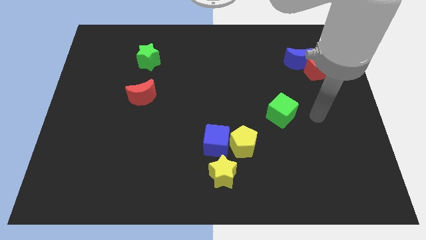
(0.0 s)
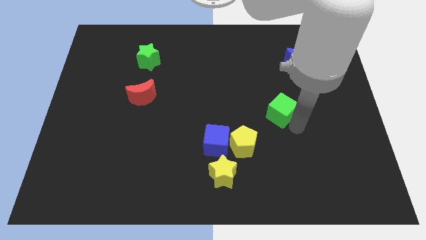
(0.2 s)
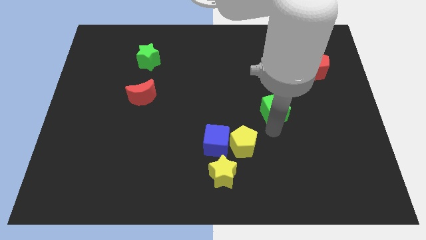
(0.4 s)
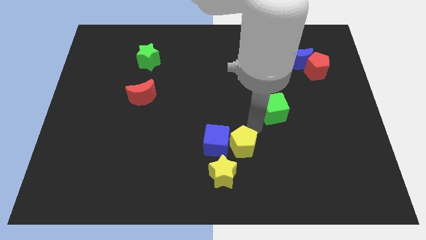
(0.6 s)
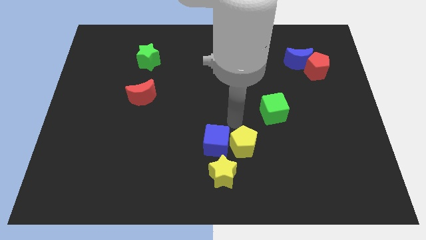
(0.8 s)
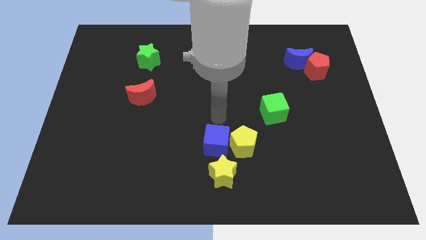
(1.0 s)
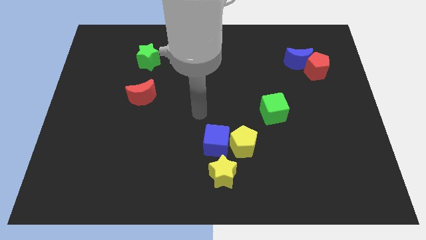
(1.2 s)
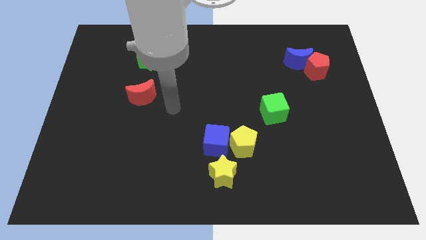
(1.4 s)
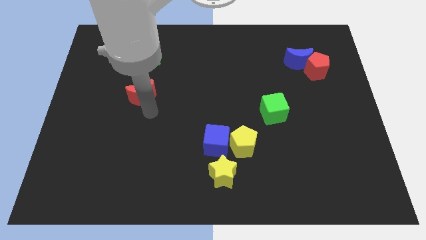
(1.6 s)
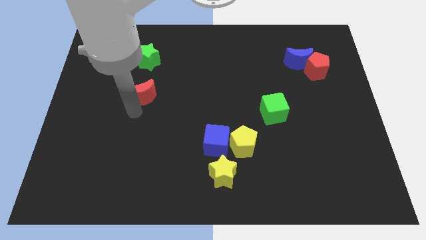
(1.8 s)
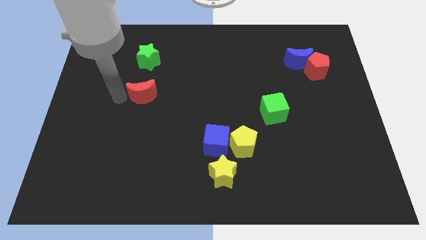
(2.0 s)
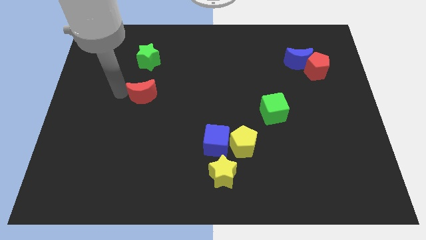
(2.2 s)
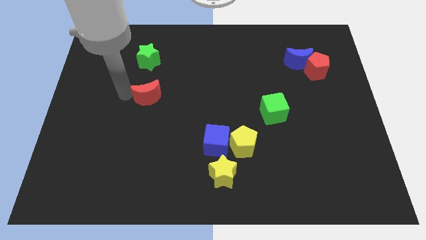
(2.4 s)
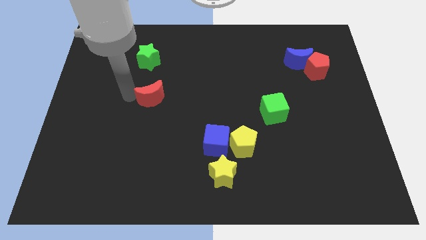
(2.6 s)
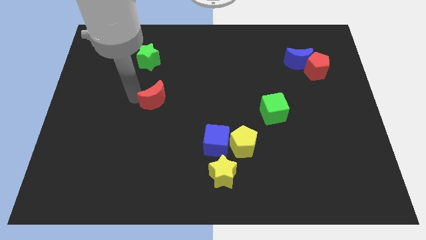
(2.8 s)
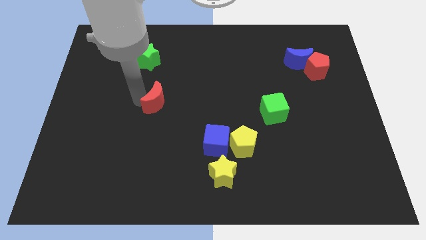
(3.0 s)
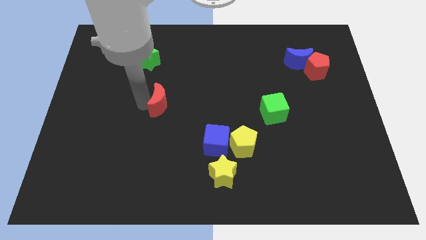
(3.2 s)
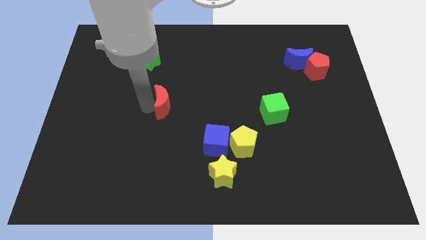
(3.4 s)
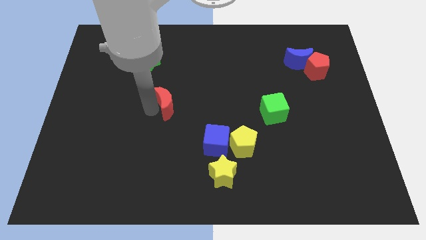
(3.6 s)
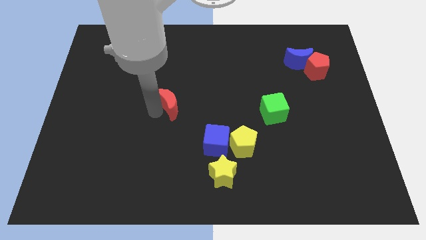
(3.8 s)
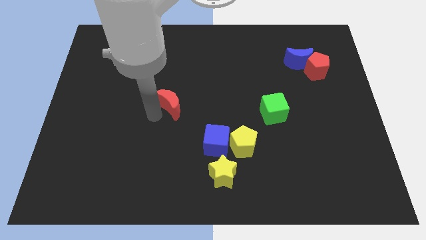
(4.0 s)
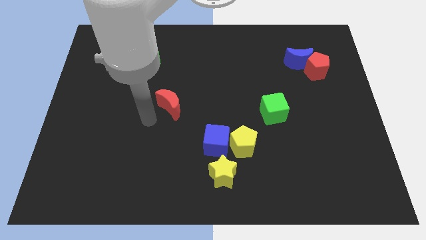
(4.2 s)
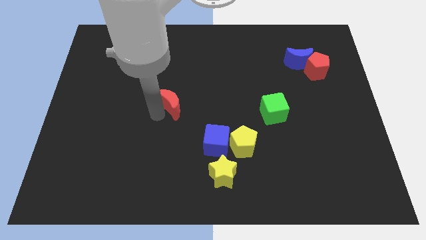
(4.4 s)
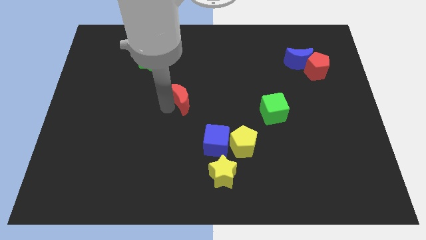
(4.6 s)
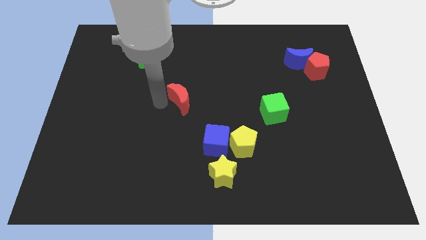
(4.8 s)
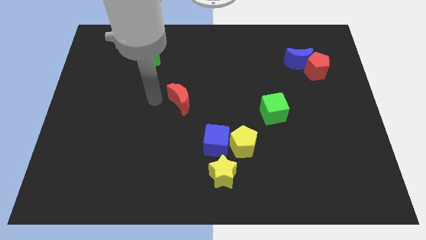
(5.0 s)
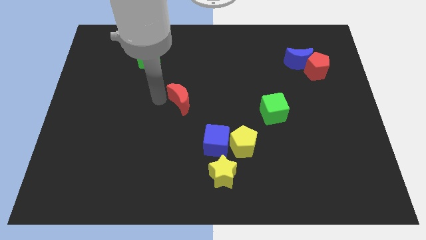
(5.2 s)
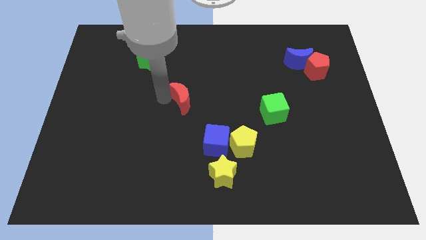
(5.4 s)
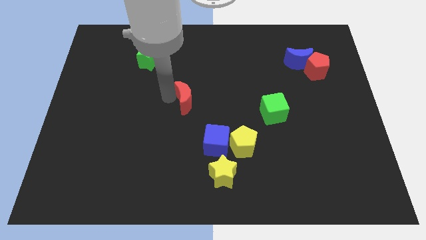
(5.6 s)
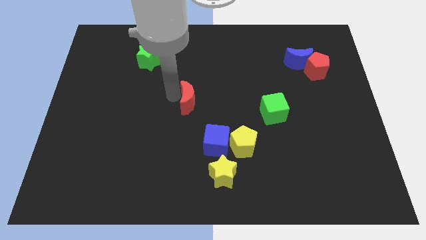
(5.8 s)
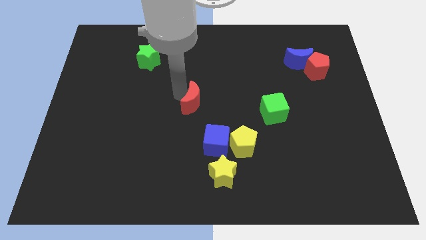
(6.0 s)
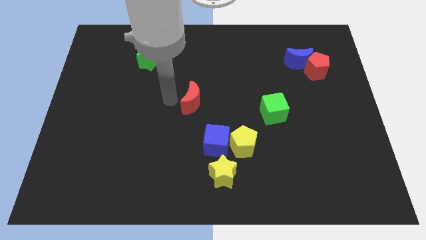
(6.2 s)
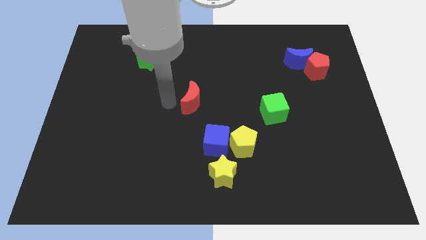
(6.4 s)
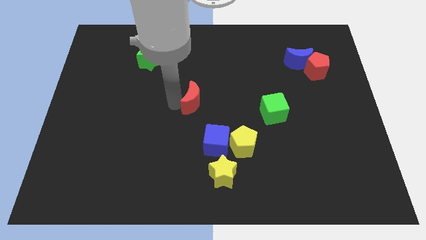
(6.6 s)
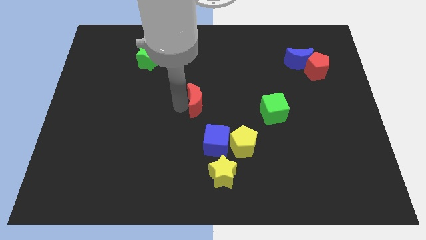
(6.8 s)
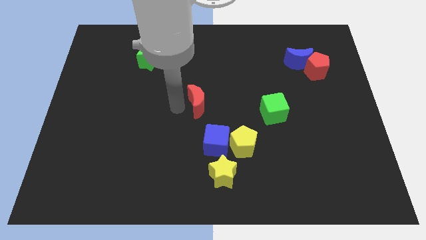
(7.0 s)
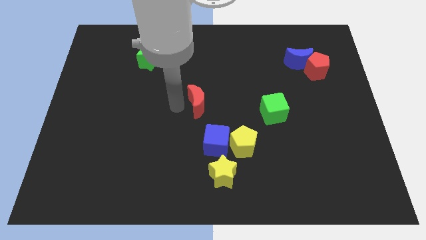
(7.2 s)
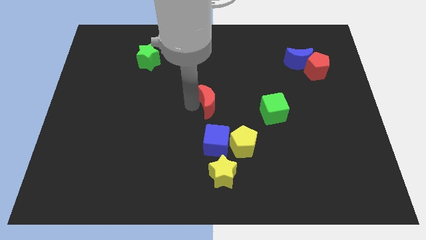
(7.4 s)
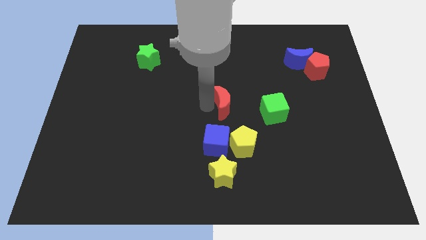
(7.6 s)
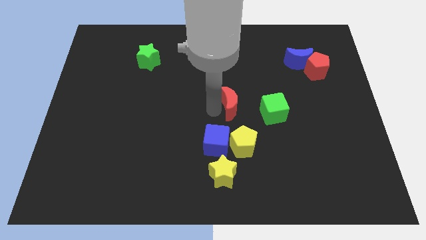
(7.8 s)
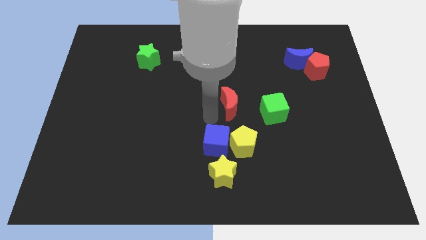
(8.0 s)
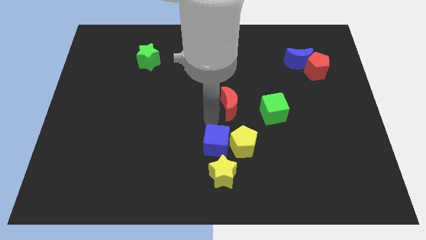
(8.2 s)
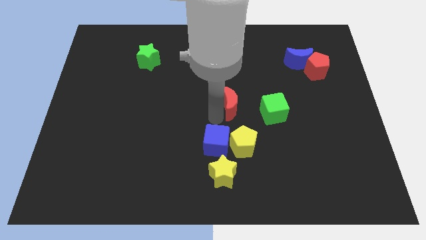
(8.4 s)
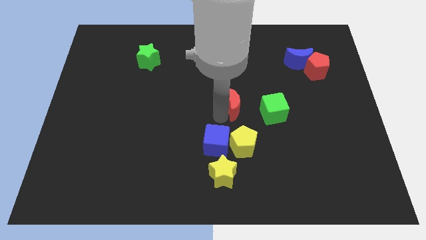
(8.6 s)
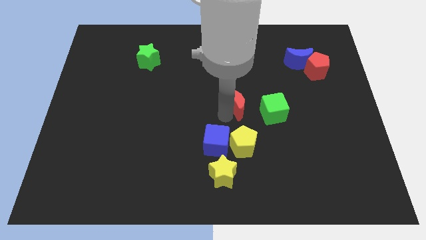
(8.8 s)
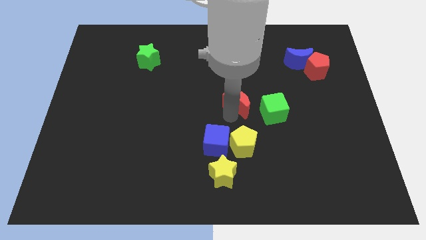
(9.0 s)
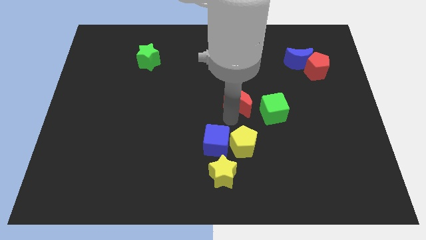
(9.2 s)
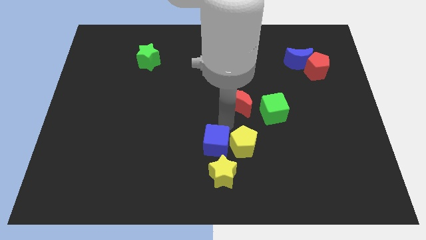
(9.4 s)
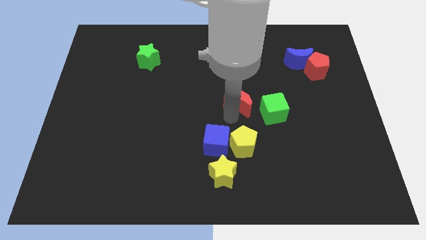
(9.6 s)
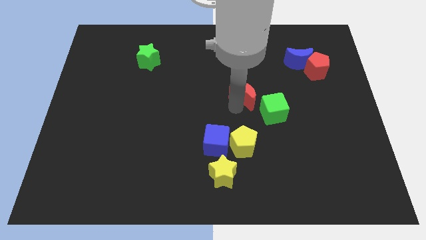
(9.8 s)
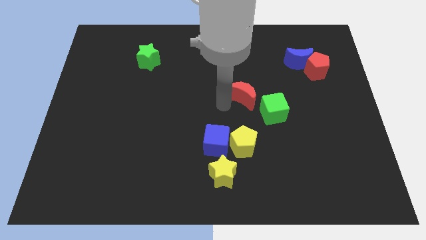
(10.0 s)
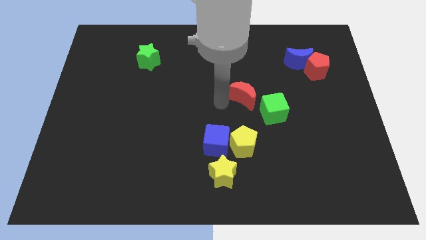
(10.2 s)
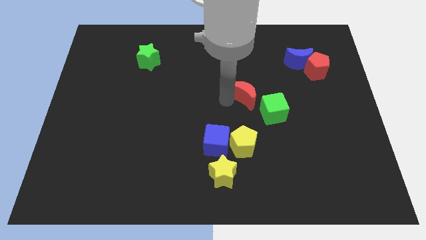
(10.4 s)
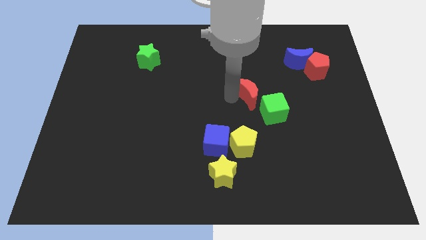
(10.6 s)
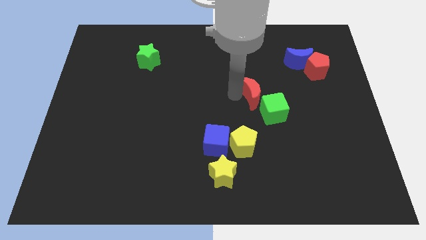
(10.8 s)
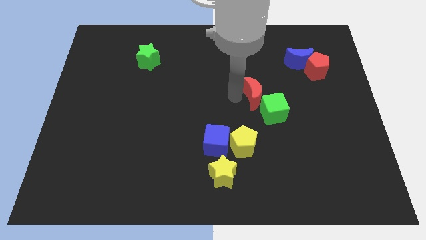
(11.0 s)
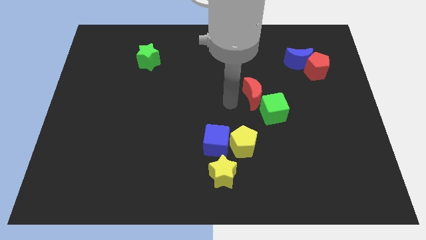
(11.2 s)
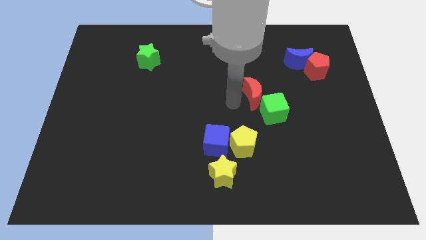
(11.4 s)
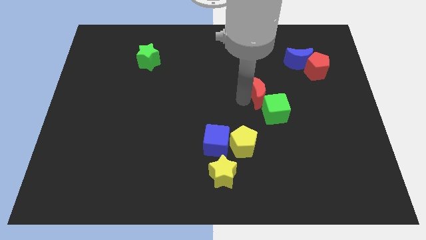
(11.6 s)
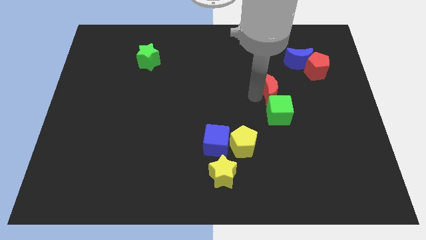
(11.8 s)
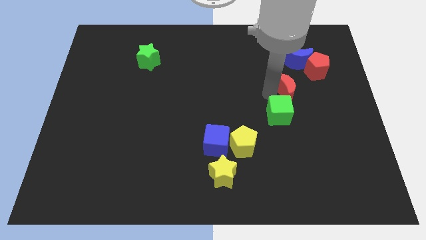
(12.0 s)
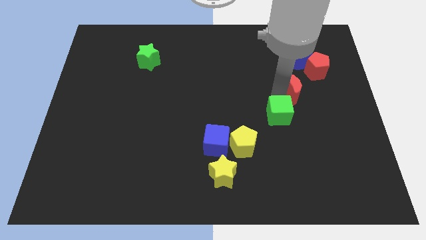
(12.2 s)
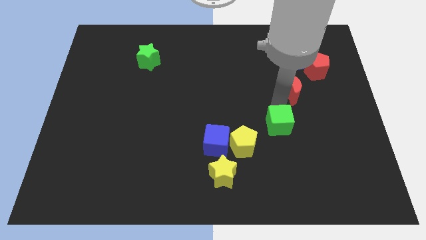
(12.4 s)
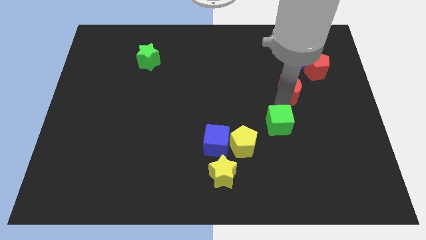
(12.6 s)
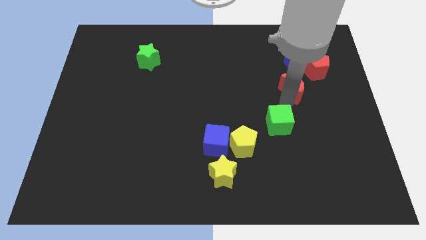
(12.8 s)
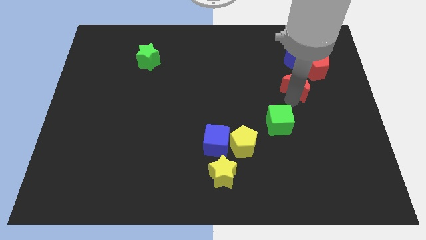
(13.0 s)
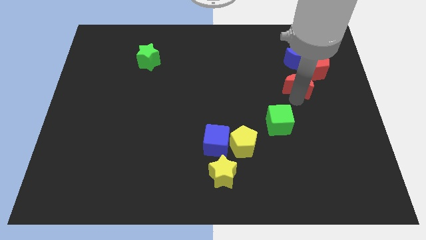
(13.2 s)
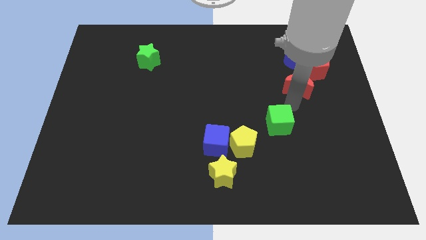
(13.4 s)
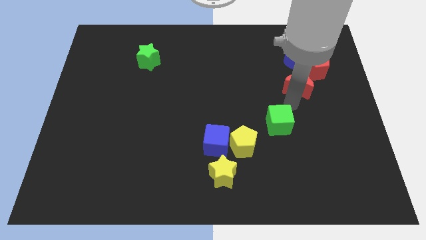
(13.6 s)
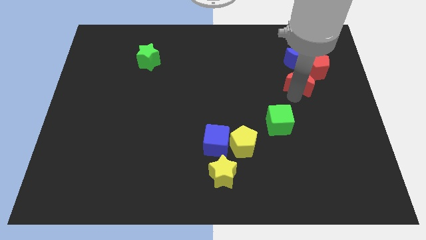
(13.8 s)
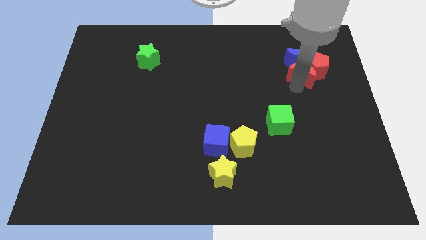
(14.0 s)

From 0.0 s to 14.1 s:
slide the red moon to the red pentagon

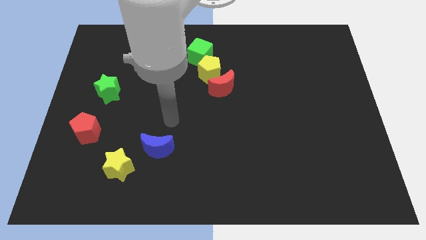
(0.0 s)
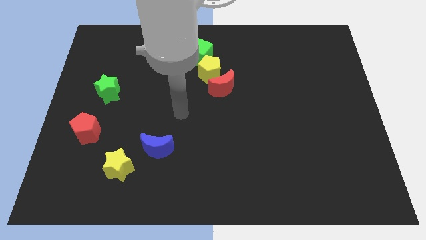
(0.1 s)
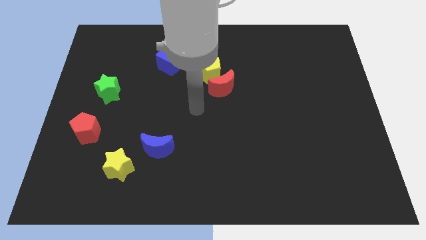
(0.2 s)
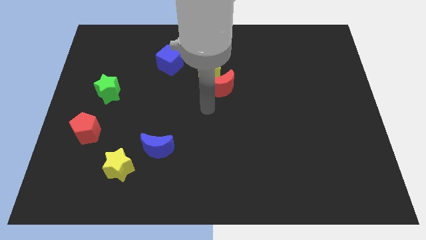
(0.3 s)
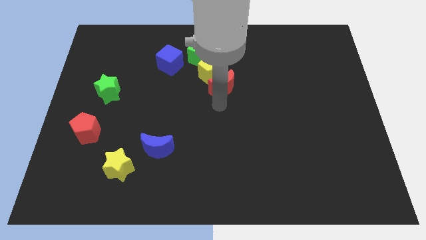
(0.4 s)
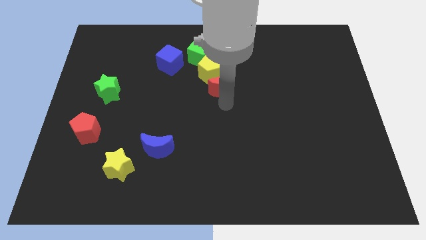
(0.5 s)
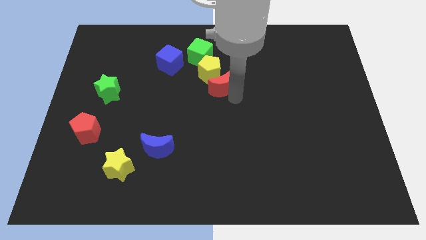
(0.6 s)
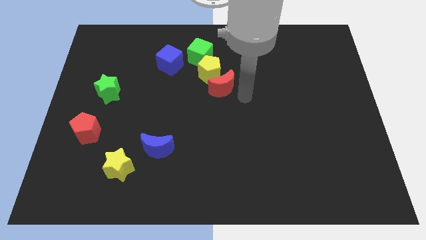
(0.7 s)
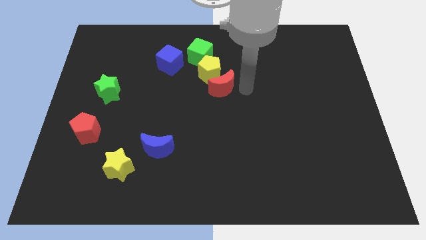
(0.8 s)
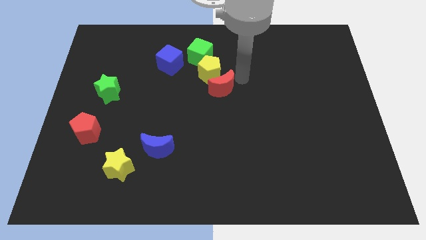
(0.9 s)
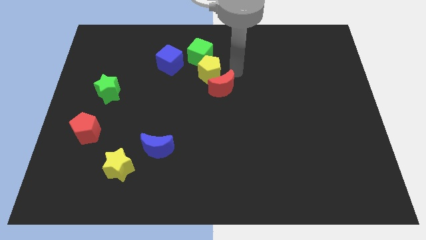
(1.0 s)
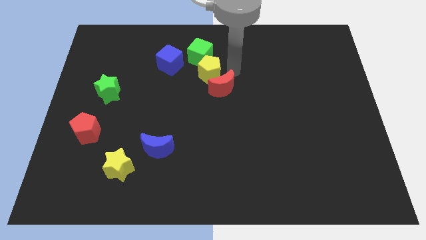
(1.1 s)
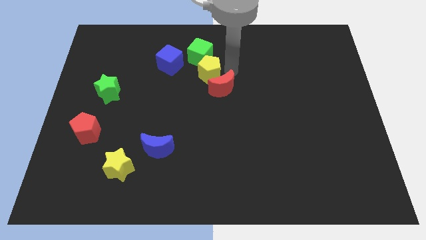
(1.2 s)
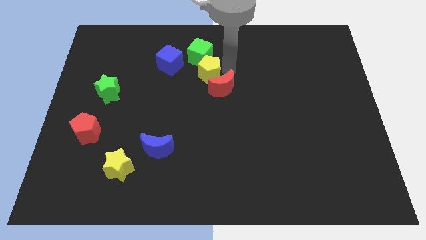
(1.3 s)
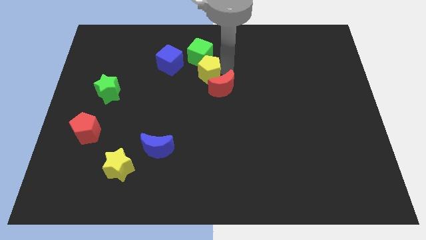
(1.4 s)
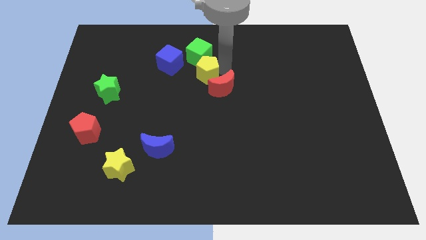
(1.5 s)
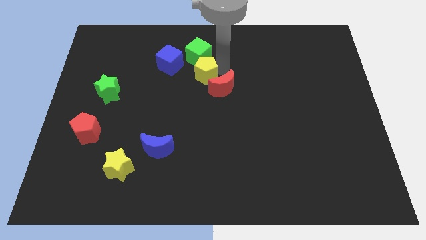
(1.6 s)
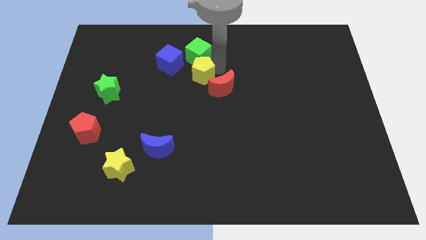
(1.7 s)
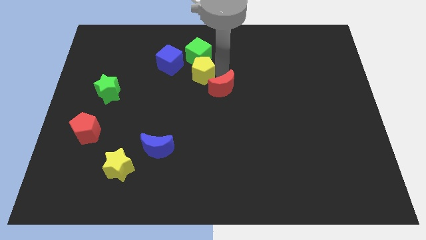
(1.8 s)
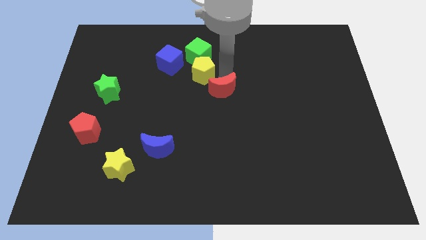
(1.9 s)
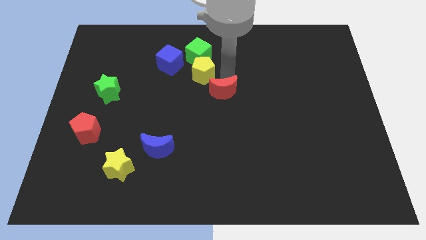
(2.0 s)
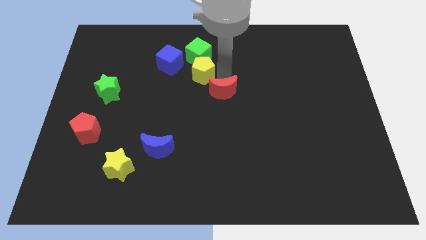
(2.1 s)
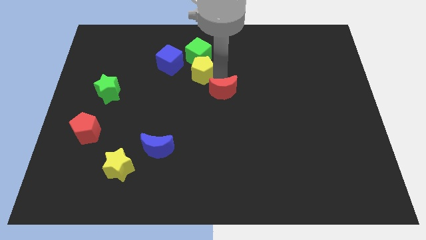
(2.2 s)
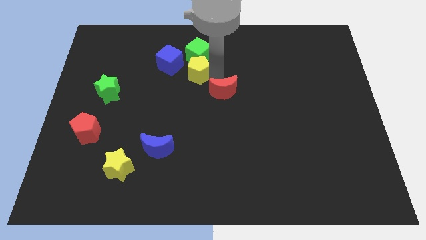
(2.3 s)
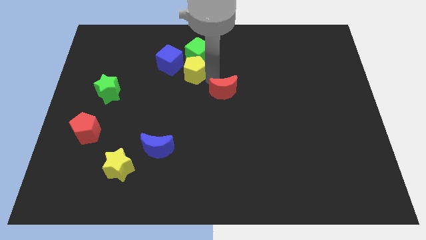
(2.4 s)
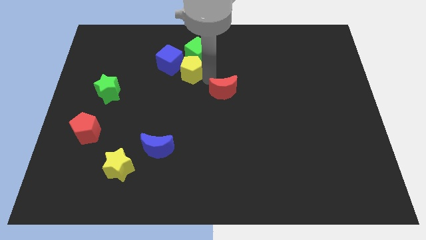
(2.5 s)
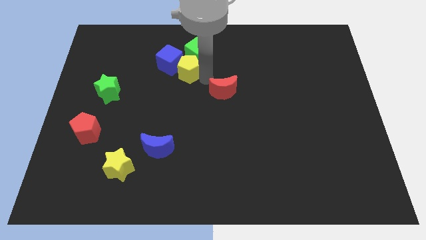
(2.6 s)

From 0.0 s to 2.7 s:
move the yellow pentagon next to the blue cube
